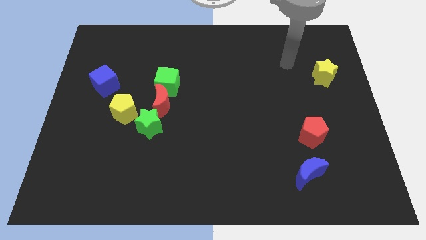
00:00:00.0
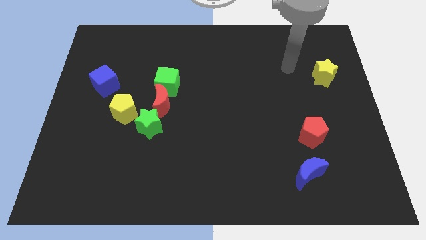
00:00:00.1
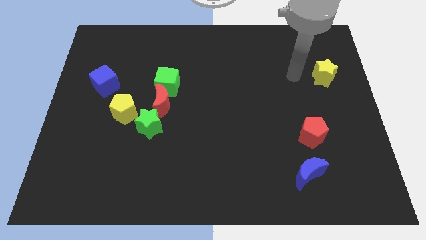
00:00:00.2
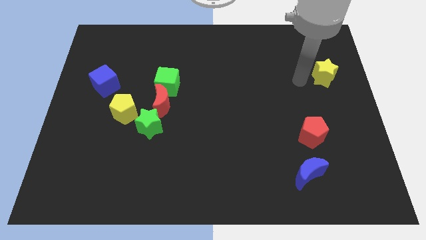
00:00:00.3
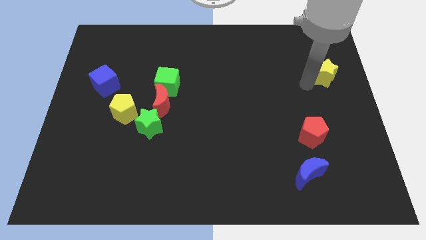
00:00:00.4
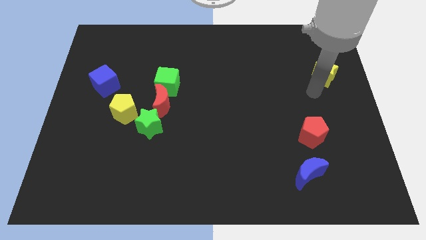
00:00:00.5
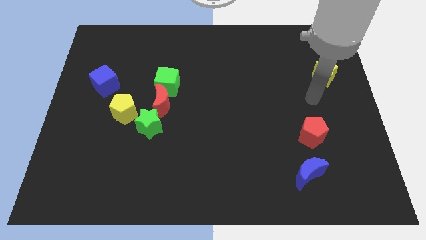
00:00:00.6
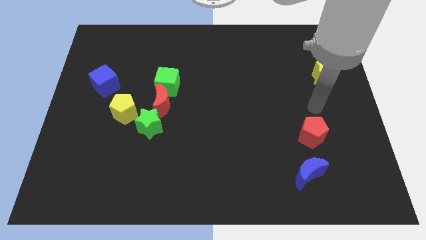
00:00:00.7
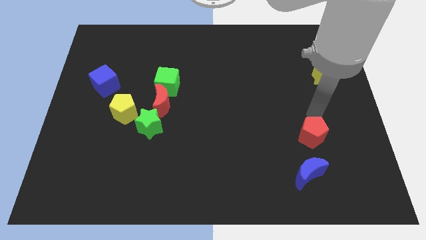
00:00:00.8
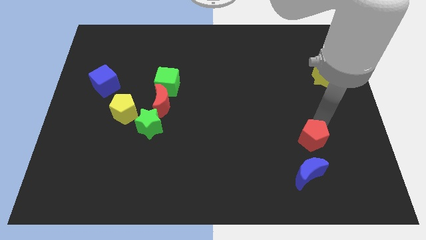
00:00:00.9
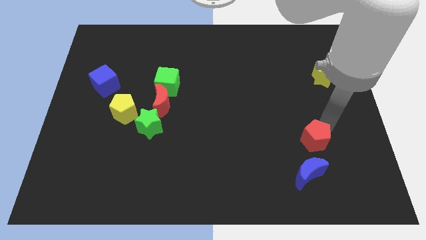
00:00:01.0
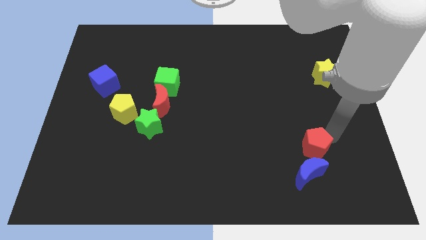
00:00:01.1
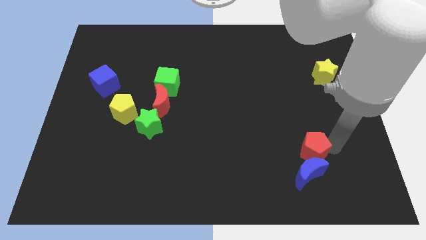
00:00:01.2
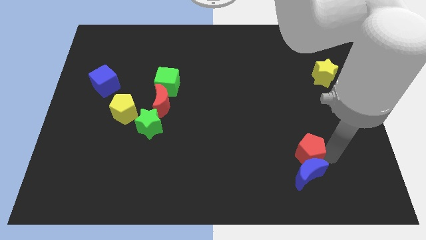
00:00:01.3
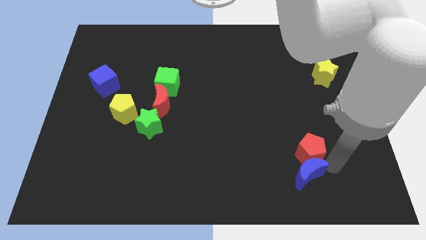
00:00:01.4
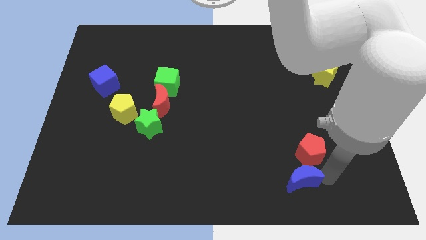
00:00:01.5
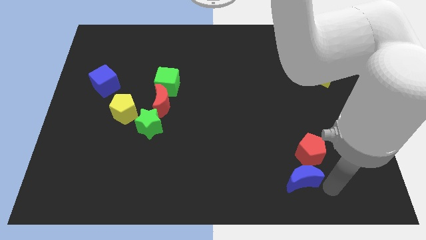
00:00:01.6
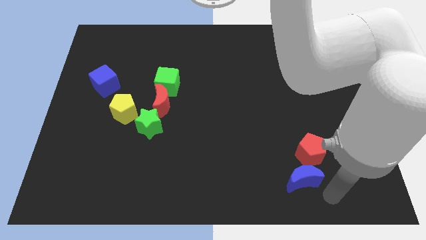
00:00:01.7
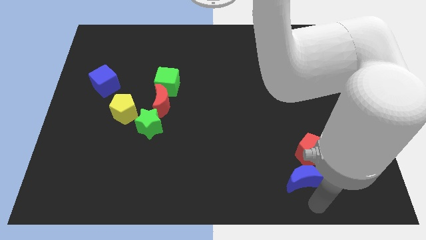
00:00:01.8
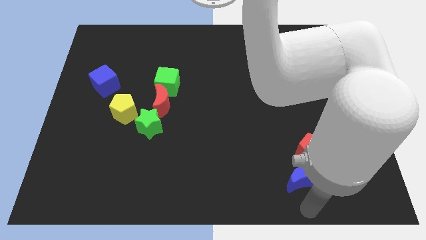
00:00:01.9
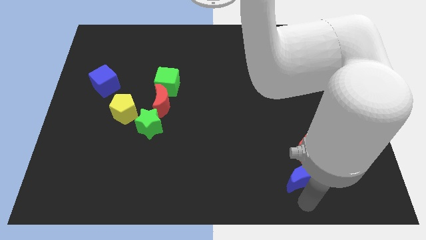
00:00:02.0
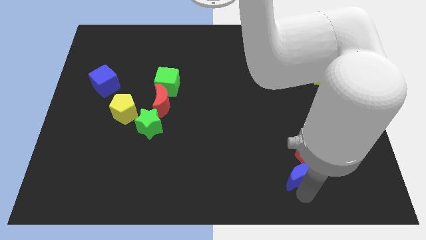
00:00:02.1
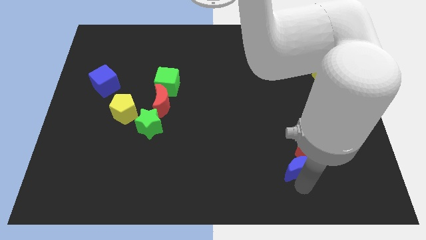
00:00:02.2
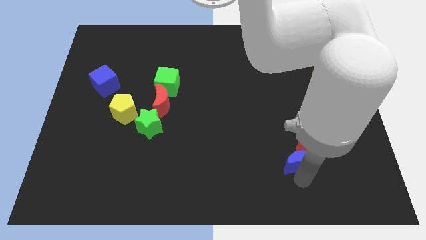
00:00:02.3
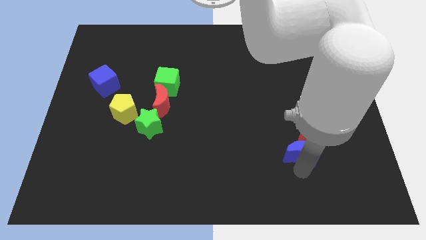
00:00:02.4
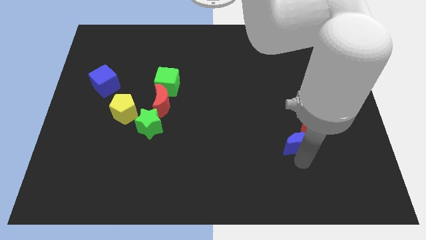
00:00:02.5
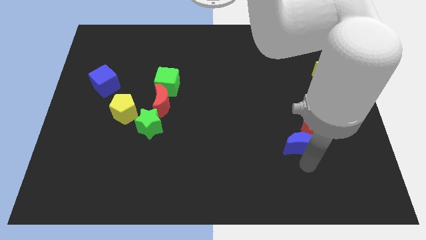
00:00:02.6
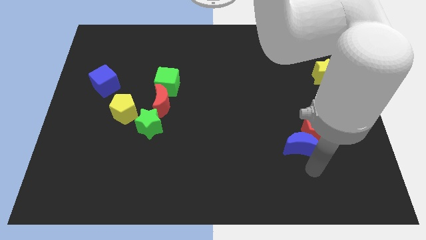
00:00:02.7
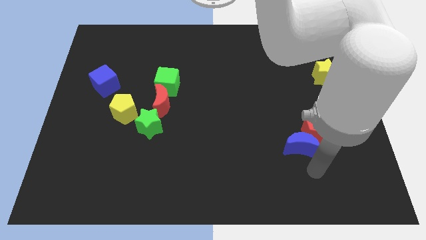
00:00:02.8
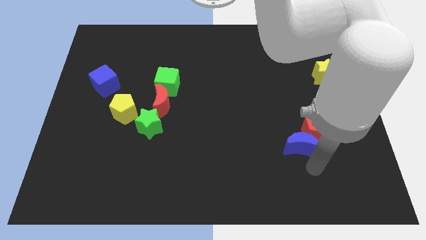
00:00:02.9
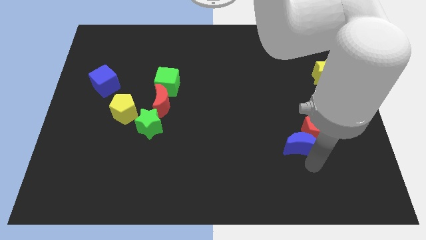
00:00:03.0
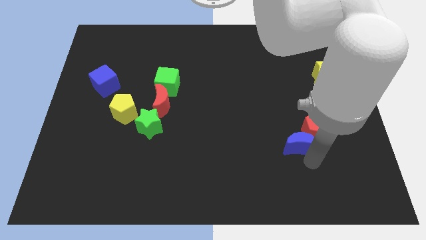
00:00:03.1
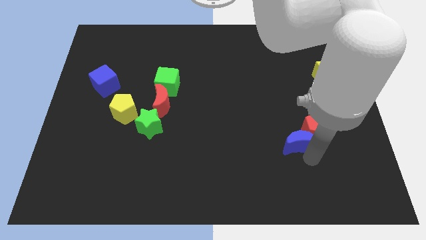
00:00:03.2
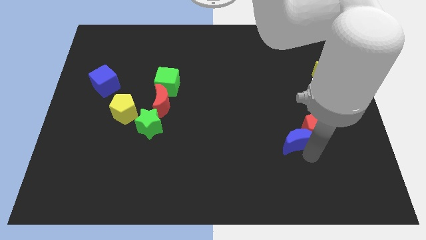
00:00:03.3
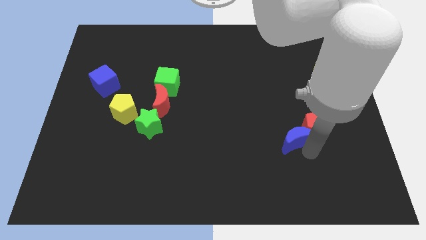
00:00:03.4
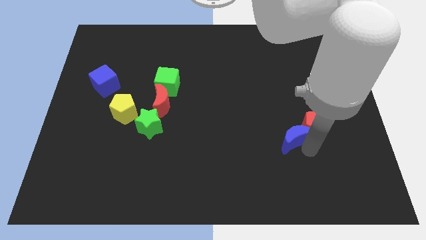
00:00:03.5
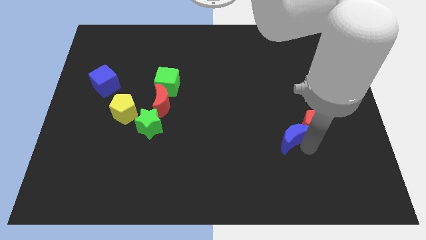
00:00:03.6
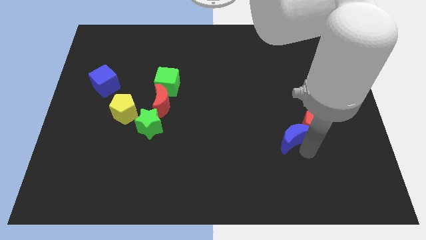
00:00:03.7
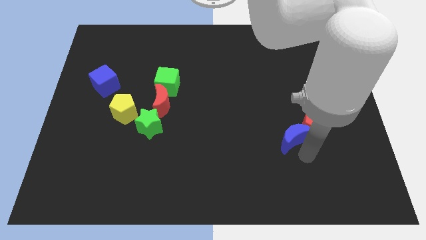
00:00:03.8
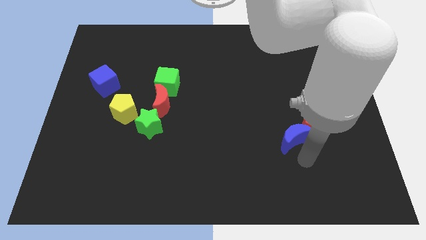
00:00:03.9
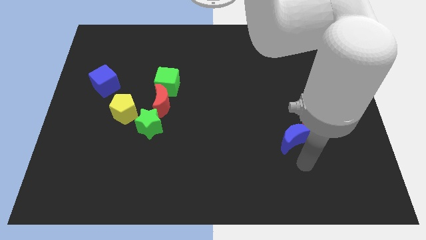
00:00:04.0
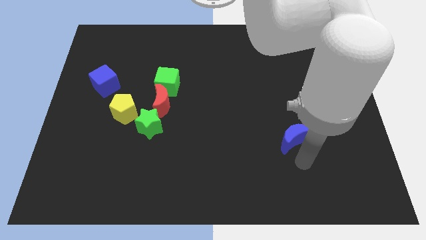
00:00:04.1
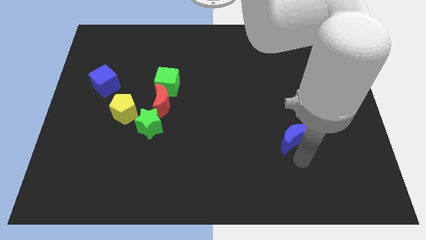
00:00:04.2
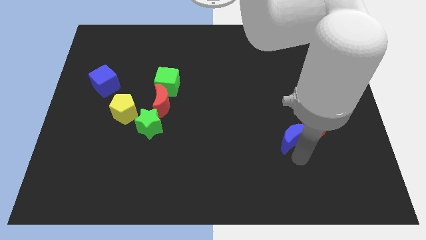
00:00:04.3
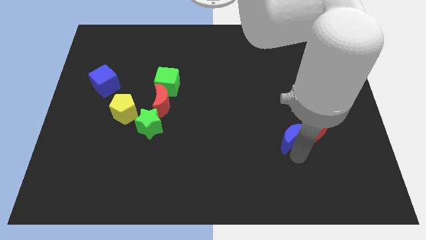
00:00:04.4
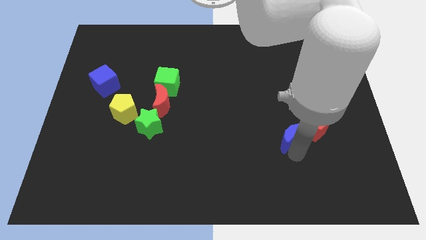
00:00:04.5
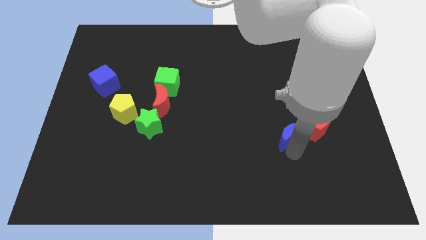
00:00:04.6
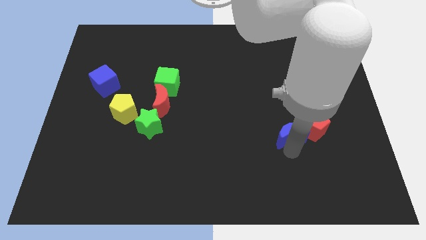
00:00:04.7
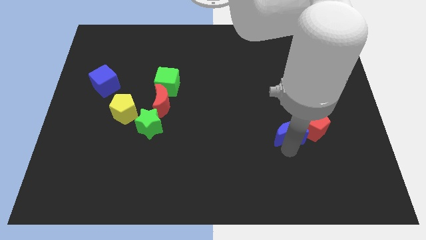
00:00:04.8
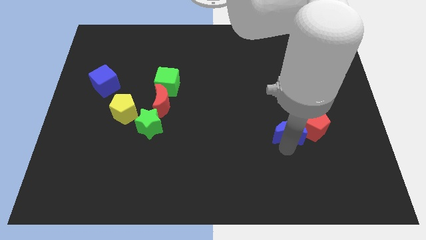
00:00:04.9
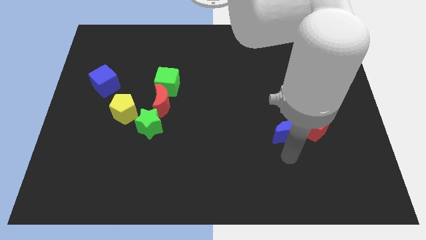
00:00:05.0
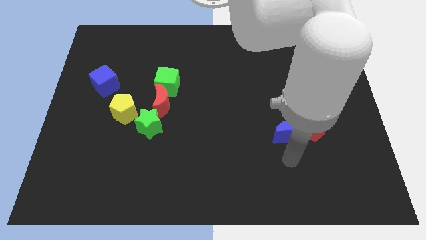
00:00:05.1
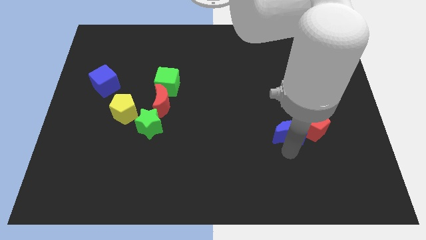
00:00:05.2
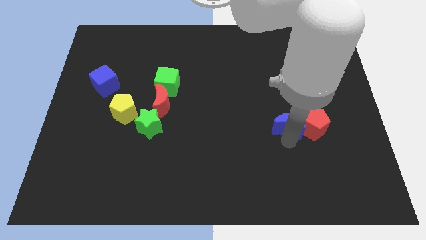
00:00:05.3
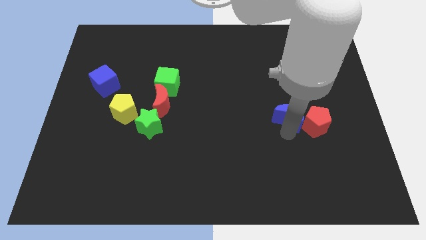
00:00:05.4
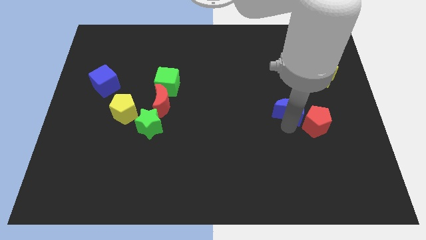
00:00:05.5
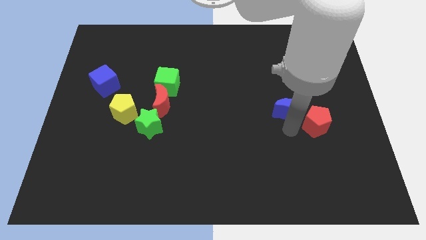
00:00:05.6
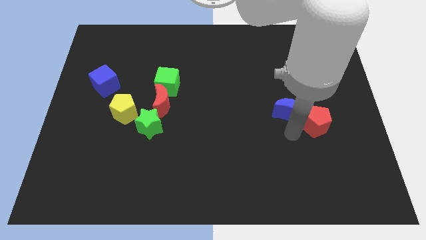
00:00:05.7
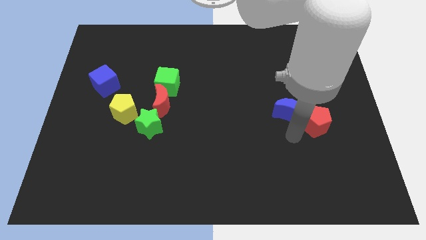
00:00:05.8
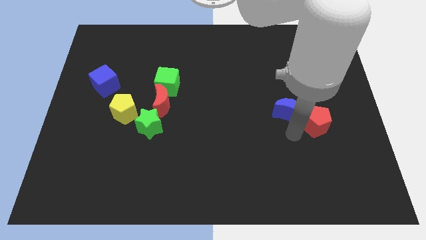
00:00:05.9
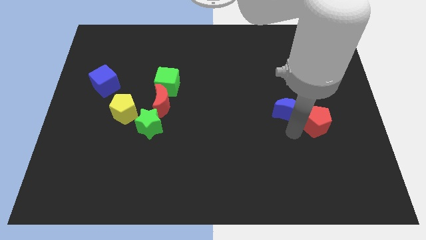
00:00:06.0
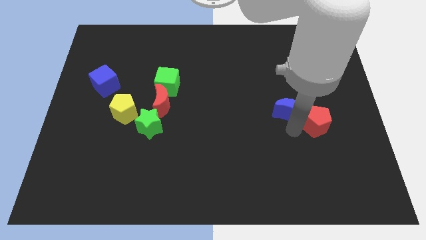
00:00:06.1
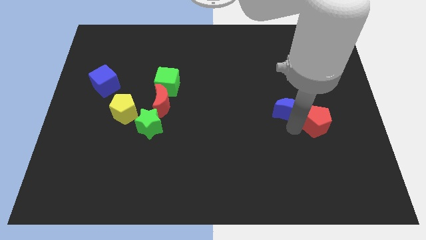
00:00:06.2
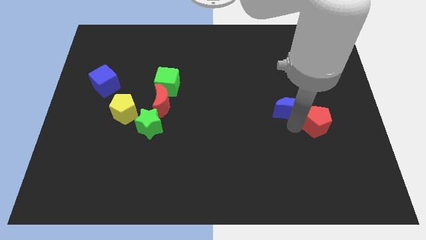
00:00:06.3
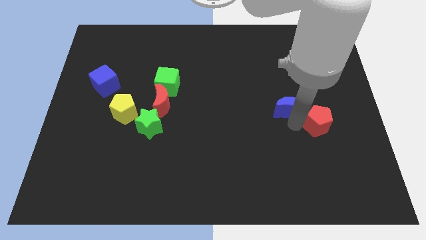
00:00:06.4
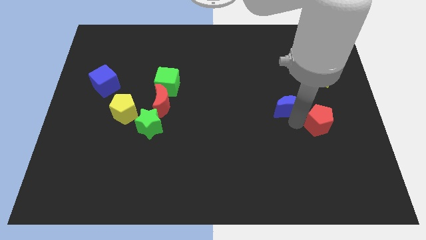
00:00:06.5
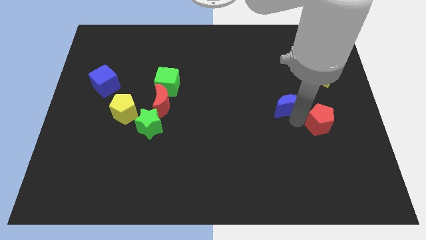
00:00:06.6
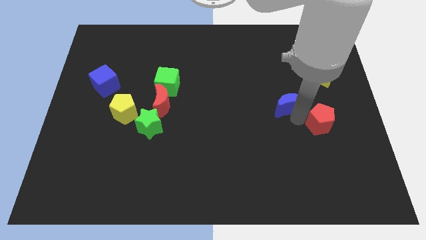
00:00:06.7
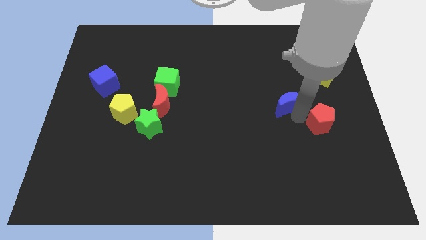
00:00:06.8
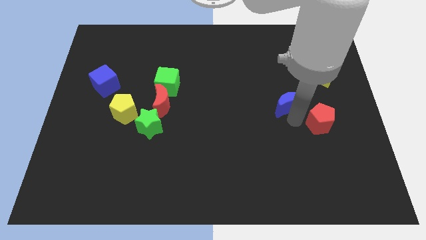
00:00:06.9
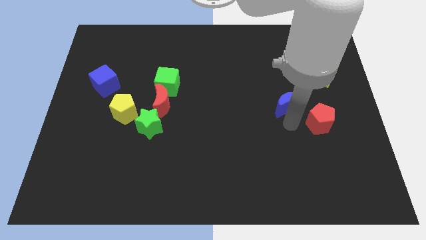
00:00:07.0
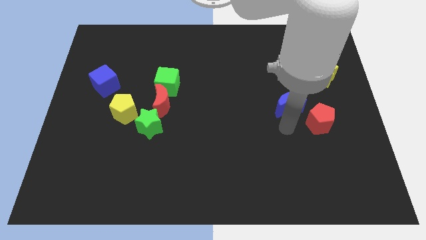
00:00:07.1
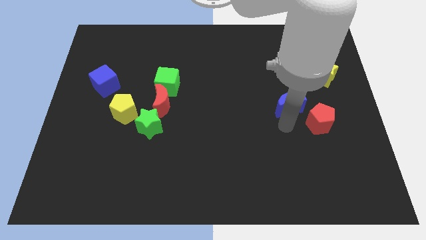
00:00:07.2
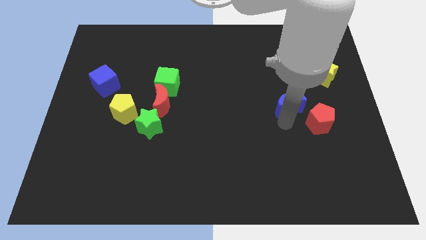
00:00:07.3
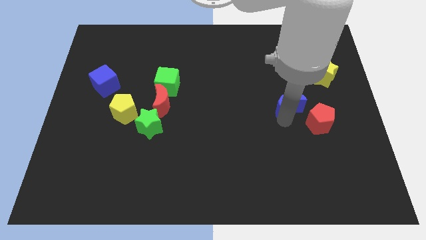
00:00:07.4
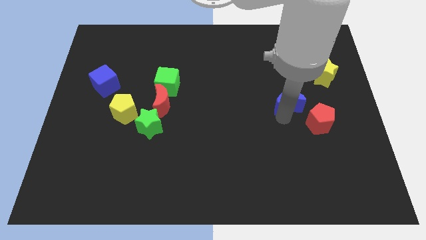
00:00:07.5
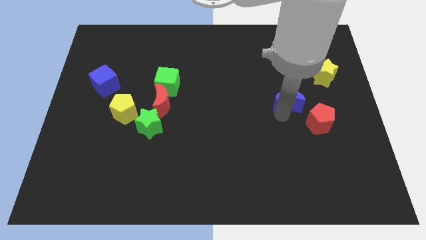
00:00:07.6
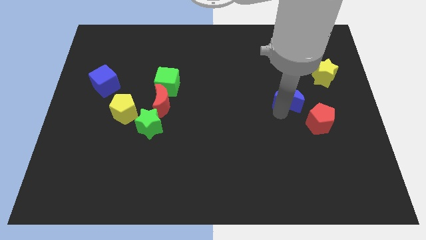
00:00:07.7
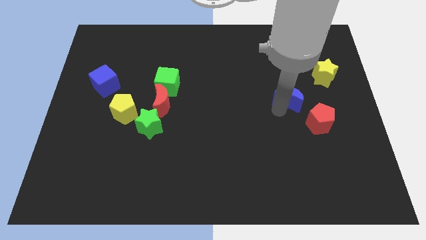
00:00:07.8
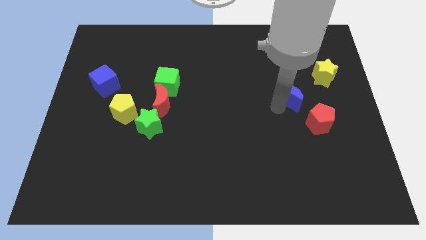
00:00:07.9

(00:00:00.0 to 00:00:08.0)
slide the blue moon upwards

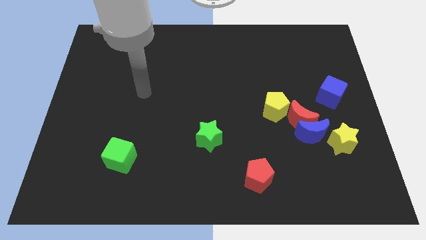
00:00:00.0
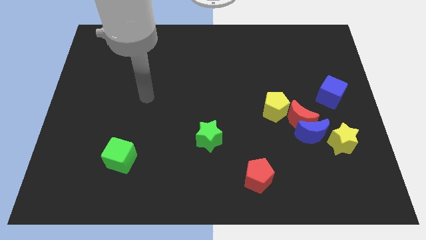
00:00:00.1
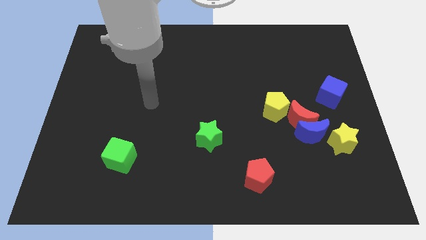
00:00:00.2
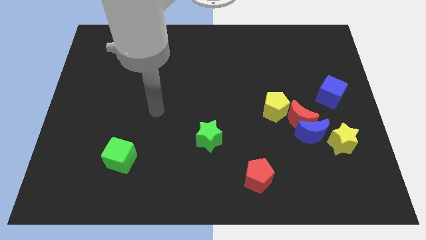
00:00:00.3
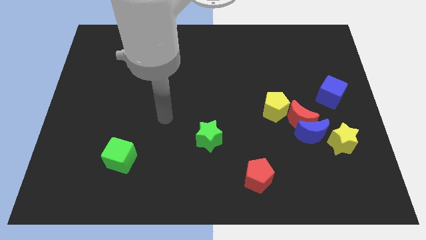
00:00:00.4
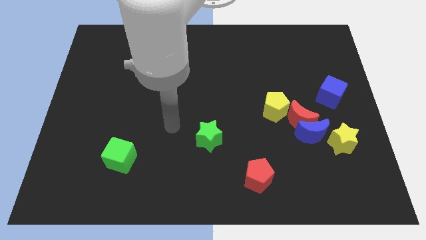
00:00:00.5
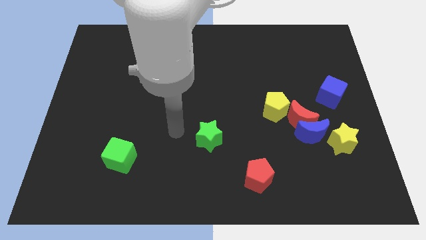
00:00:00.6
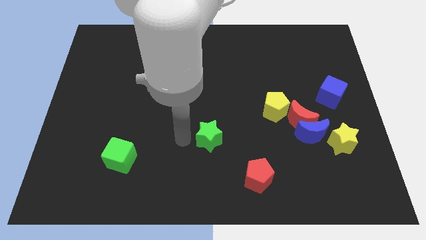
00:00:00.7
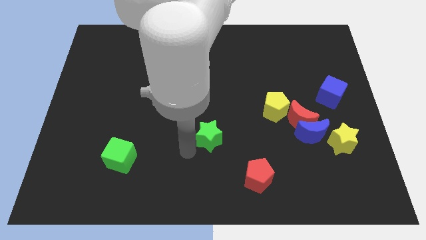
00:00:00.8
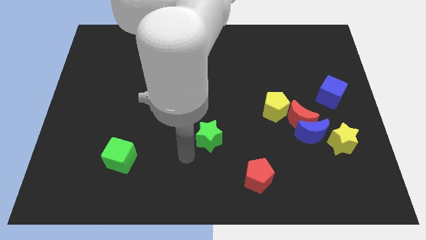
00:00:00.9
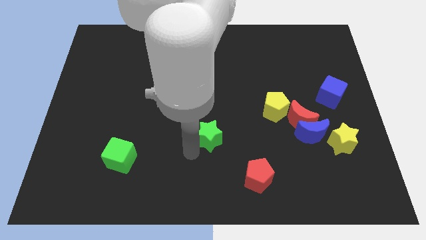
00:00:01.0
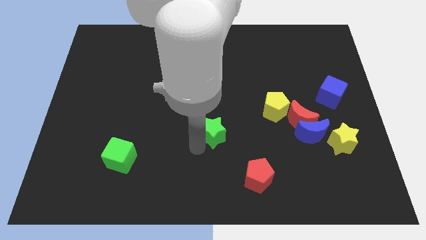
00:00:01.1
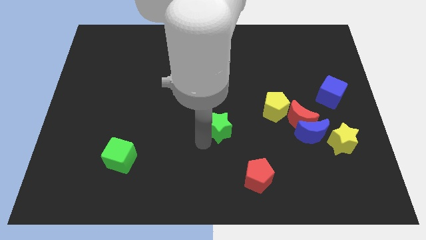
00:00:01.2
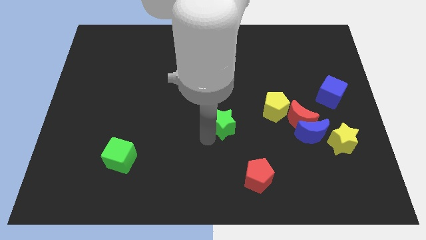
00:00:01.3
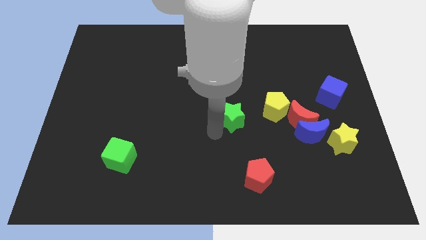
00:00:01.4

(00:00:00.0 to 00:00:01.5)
move the green star diagonally upwards and right somewhat
